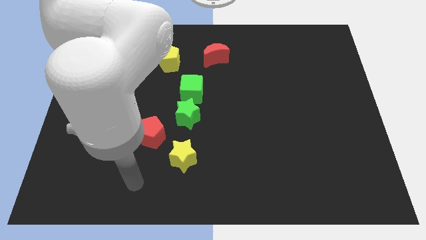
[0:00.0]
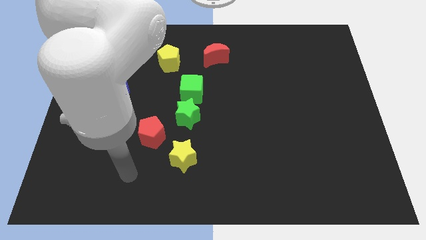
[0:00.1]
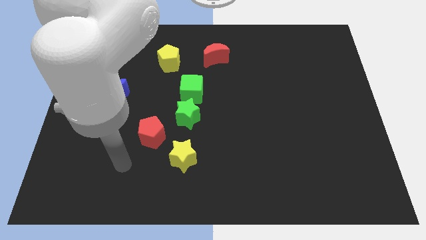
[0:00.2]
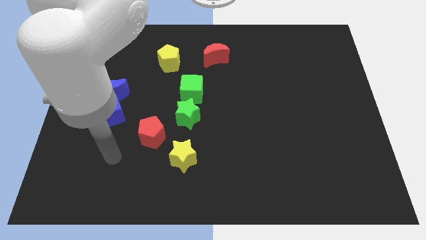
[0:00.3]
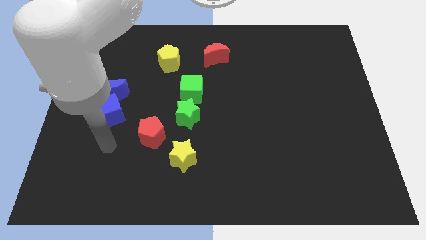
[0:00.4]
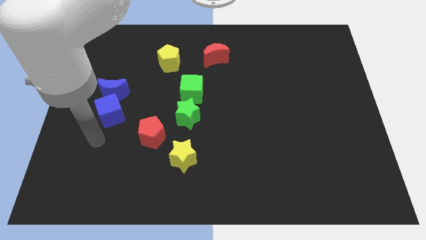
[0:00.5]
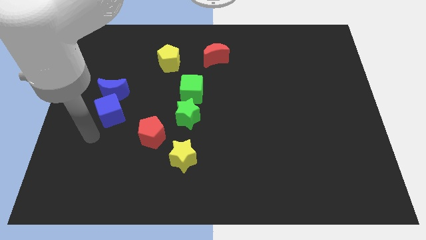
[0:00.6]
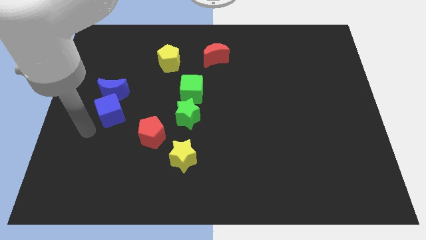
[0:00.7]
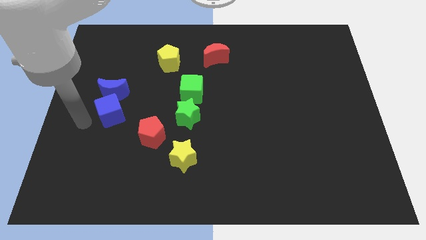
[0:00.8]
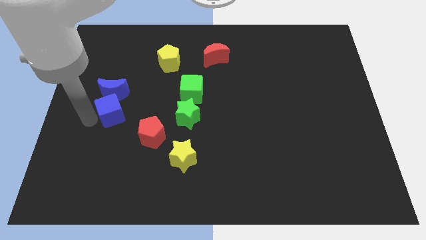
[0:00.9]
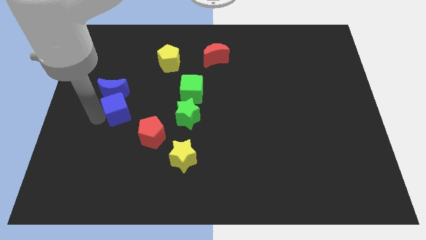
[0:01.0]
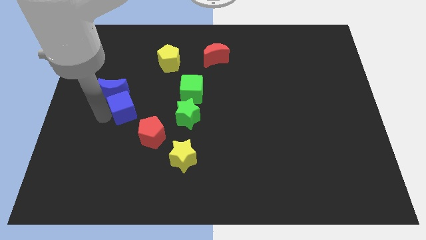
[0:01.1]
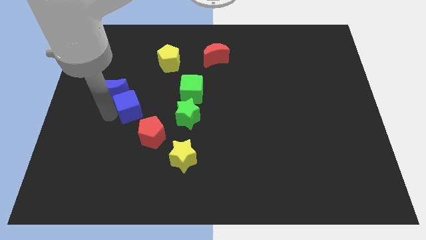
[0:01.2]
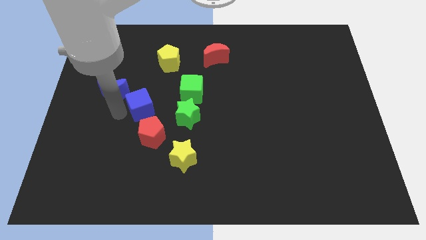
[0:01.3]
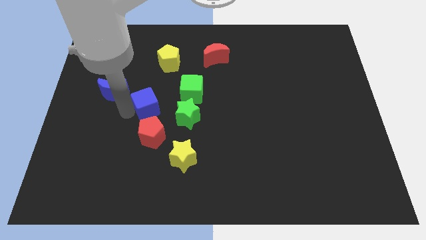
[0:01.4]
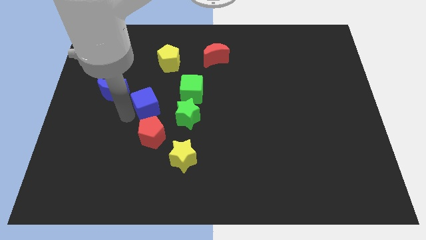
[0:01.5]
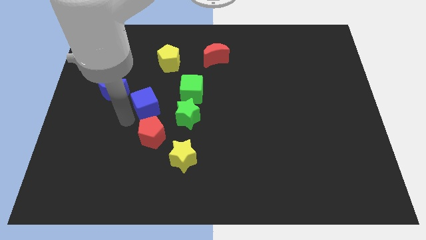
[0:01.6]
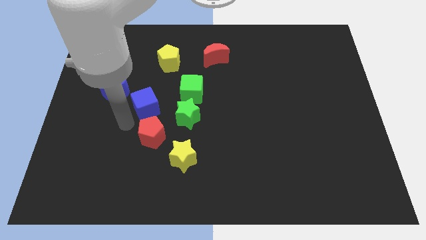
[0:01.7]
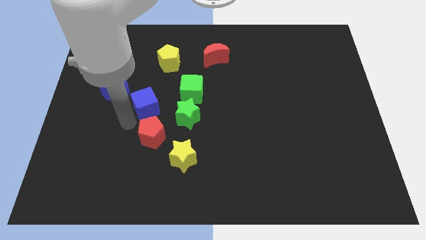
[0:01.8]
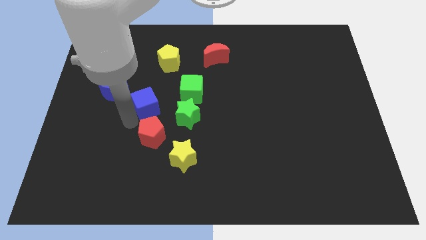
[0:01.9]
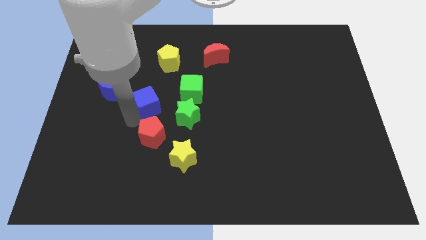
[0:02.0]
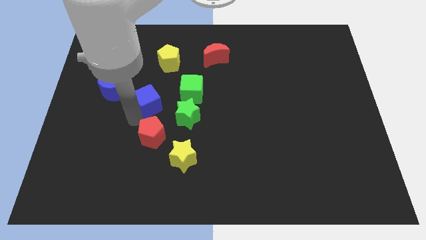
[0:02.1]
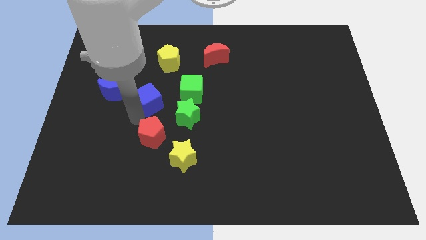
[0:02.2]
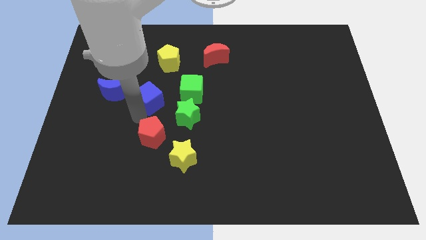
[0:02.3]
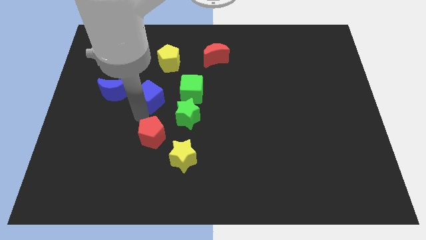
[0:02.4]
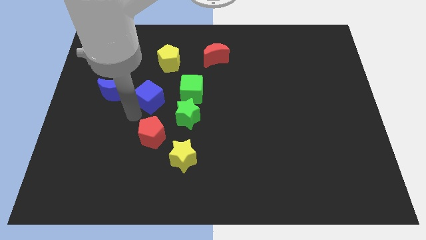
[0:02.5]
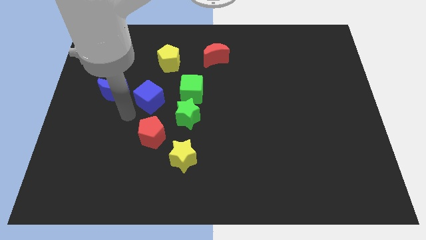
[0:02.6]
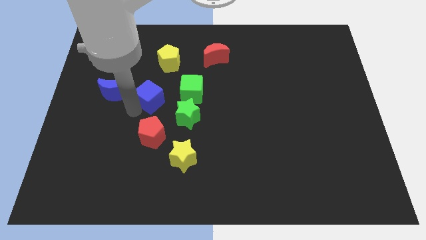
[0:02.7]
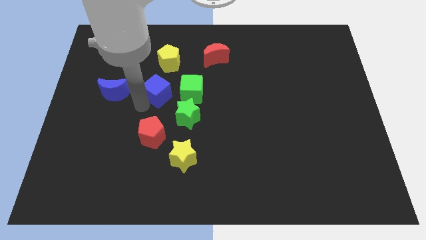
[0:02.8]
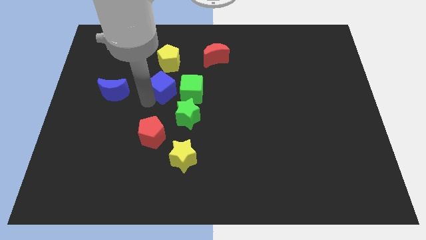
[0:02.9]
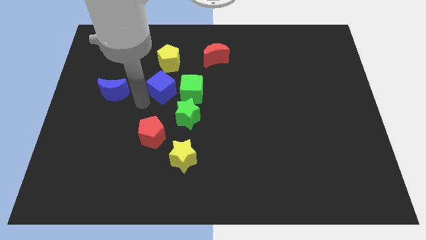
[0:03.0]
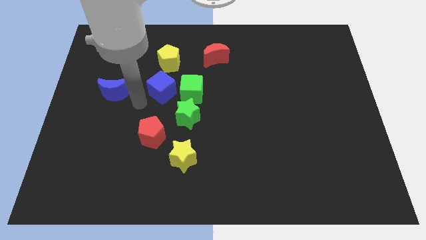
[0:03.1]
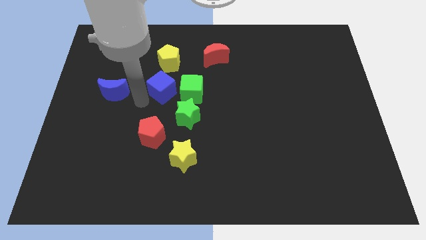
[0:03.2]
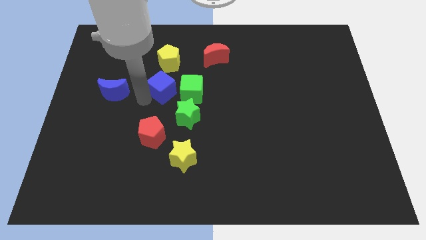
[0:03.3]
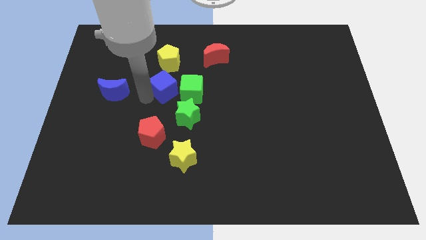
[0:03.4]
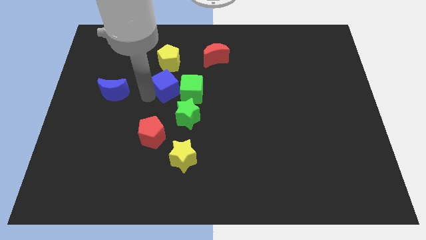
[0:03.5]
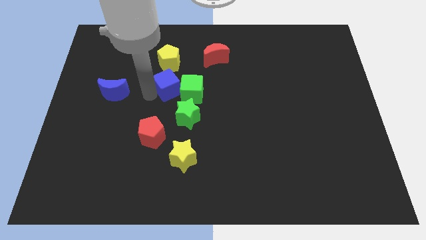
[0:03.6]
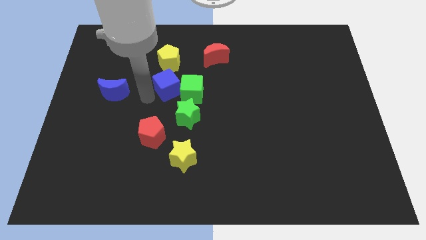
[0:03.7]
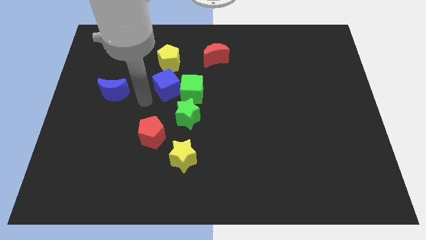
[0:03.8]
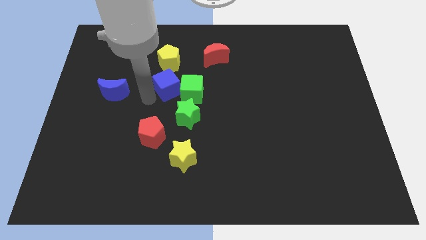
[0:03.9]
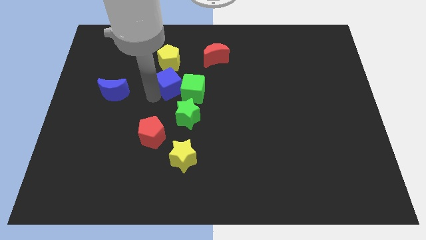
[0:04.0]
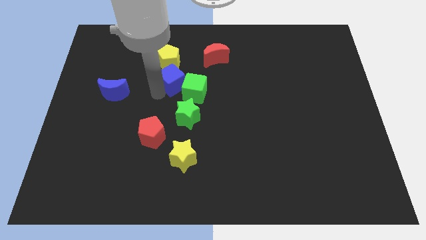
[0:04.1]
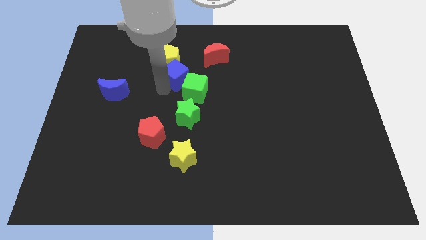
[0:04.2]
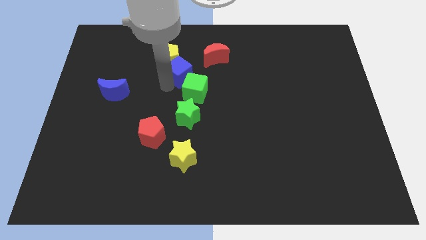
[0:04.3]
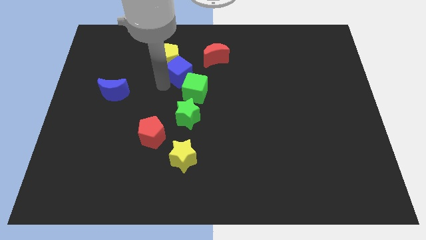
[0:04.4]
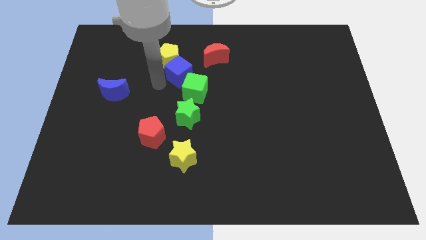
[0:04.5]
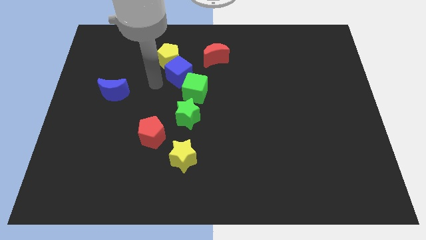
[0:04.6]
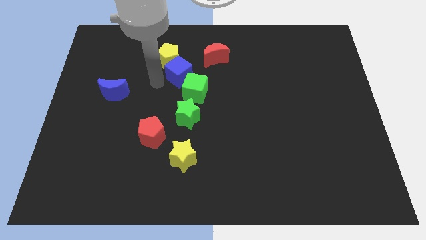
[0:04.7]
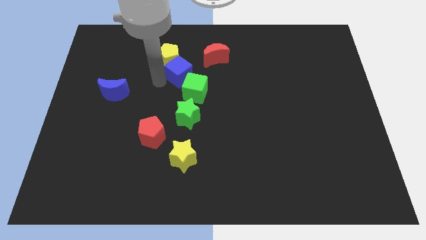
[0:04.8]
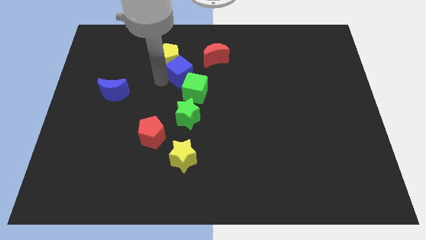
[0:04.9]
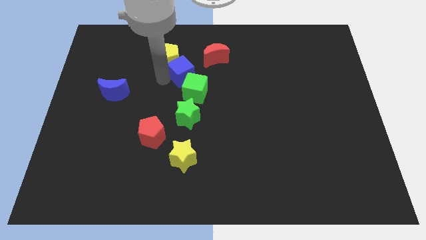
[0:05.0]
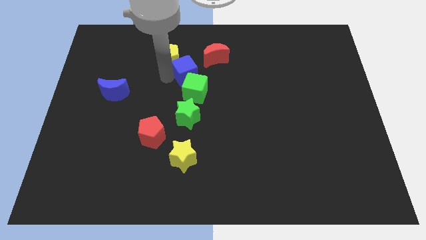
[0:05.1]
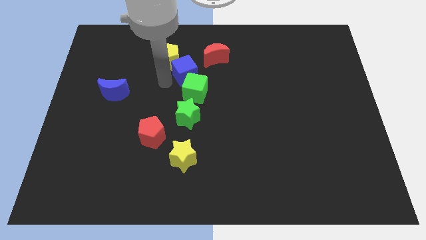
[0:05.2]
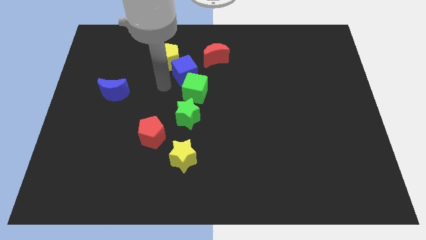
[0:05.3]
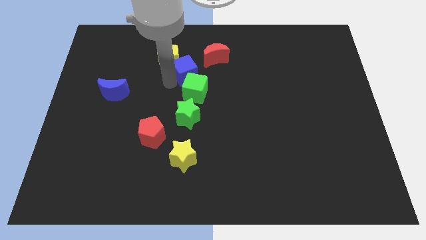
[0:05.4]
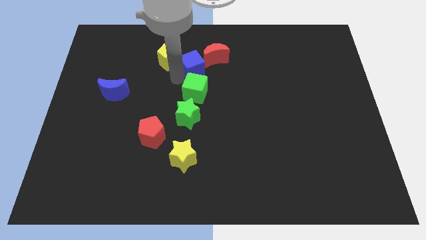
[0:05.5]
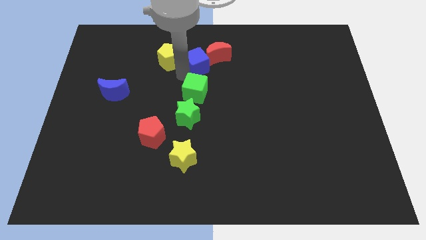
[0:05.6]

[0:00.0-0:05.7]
push the blue cube next to the red moon

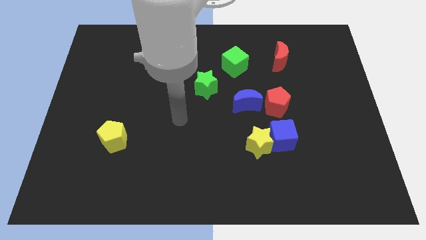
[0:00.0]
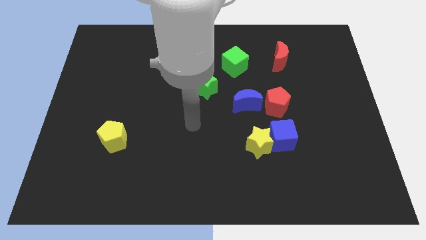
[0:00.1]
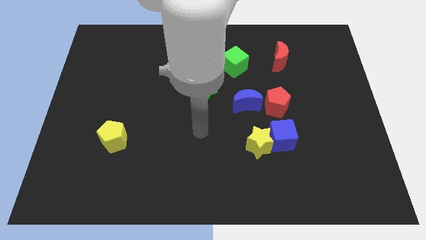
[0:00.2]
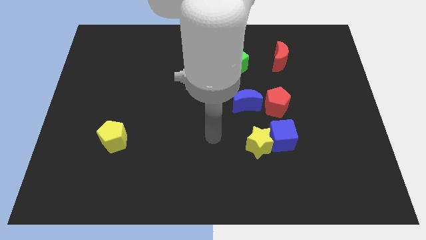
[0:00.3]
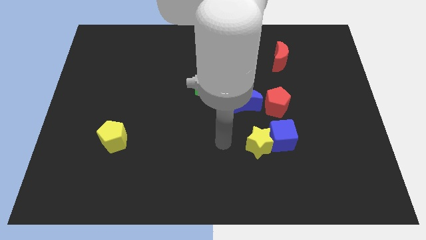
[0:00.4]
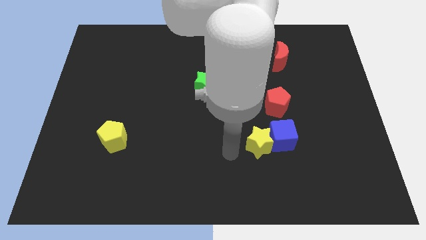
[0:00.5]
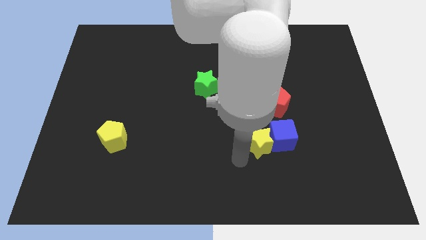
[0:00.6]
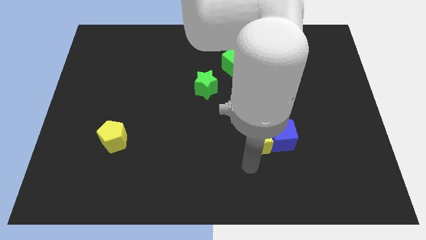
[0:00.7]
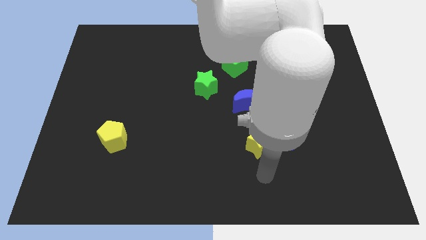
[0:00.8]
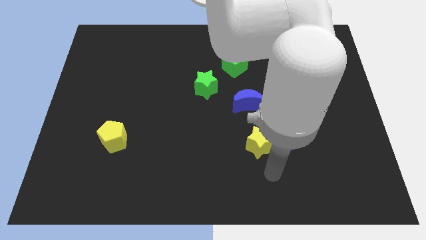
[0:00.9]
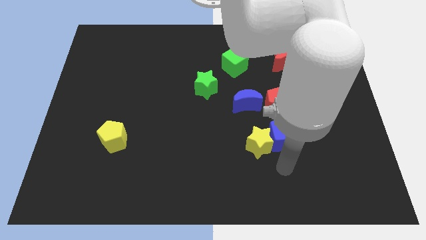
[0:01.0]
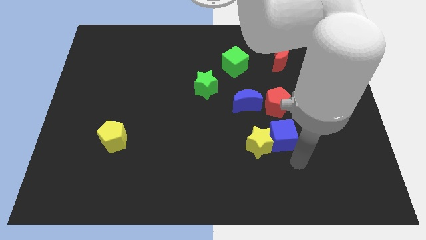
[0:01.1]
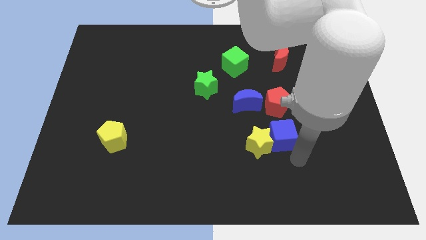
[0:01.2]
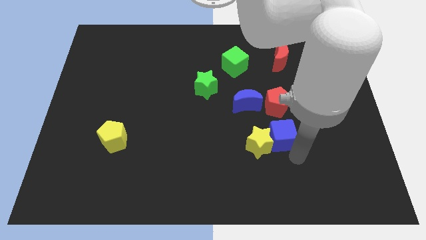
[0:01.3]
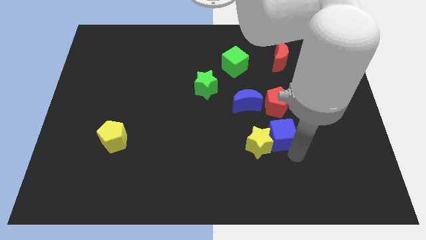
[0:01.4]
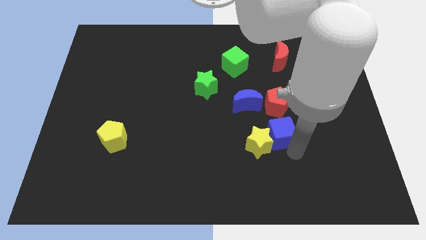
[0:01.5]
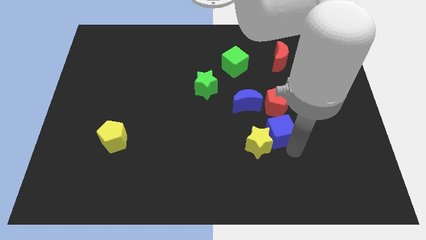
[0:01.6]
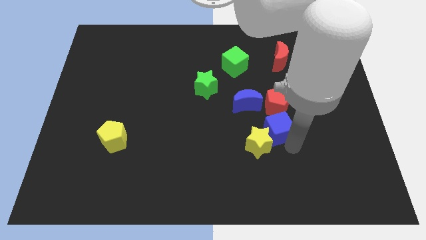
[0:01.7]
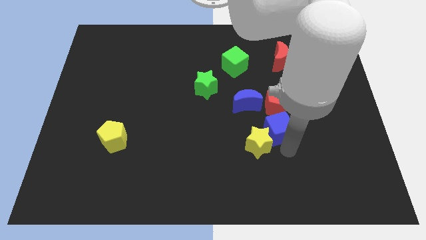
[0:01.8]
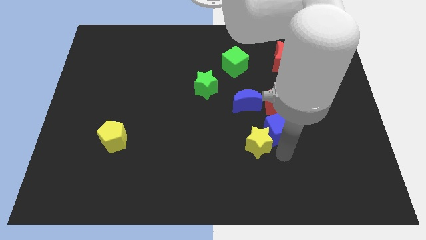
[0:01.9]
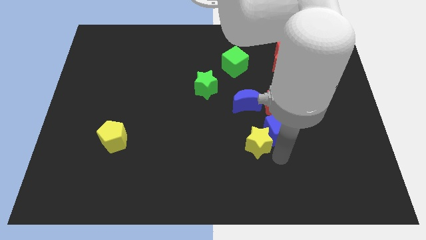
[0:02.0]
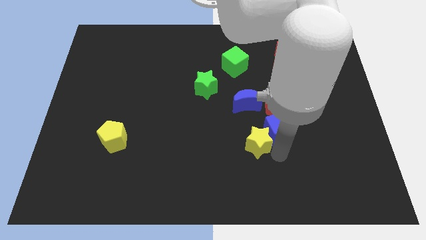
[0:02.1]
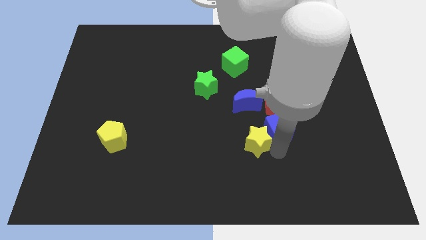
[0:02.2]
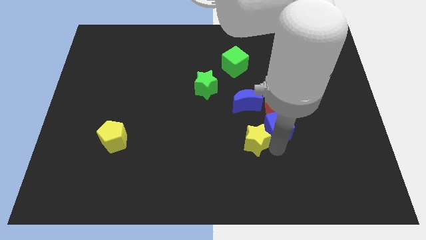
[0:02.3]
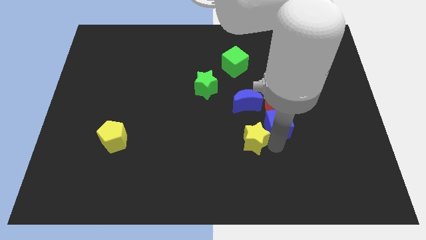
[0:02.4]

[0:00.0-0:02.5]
push the blue cube towards the red pentagon
